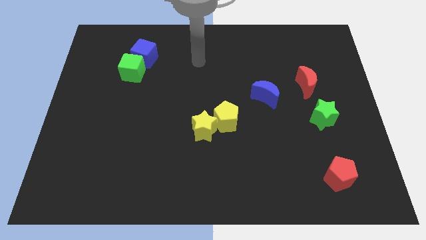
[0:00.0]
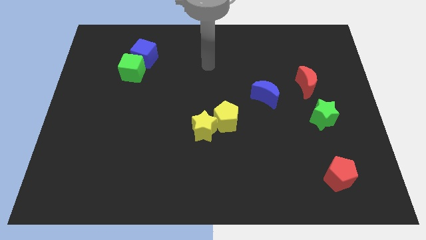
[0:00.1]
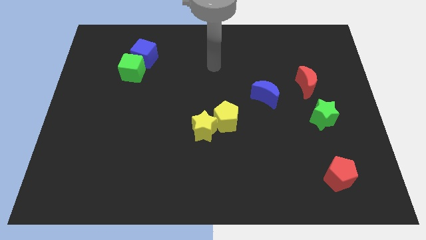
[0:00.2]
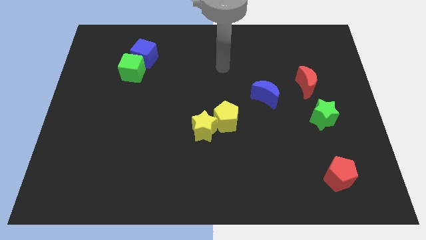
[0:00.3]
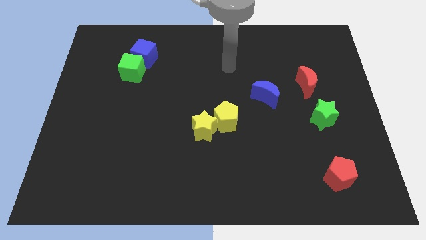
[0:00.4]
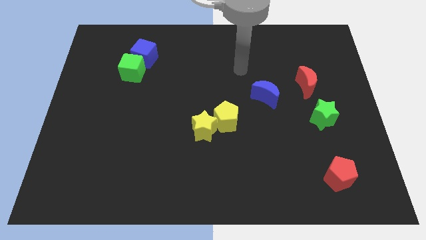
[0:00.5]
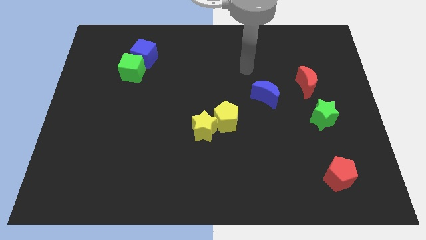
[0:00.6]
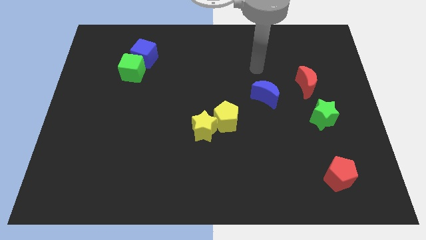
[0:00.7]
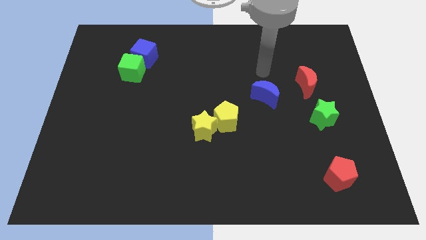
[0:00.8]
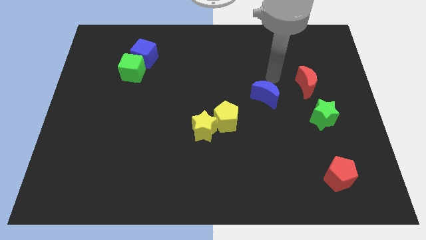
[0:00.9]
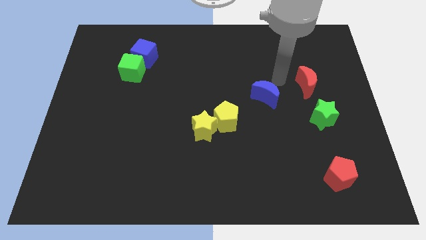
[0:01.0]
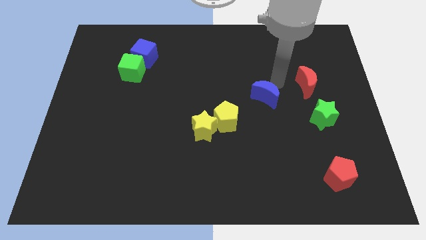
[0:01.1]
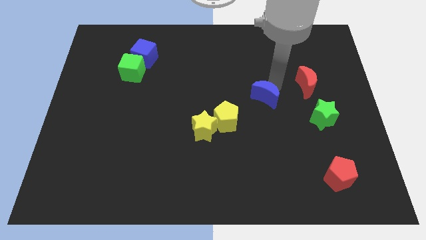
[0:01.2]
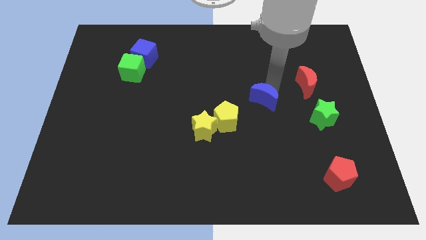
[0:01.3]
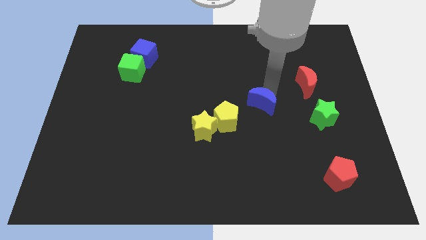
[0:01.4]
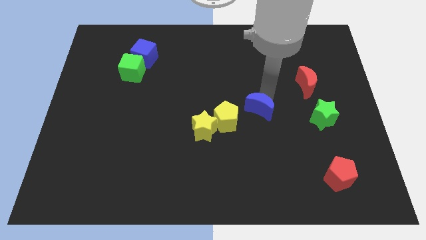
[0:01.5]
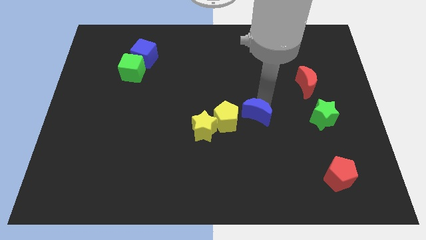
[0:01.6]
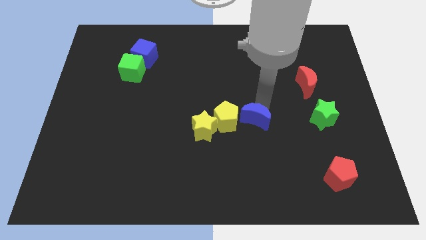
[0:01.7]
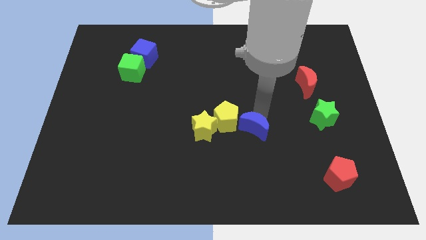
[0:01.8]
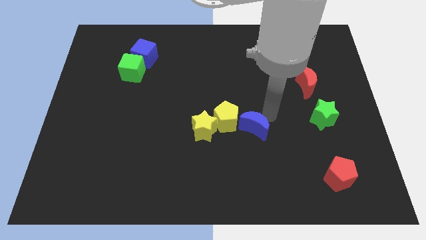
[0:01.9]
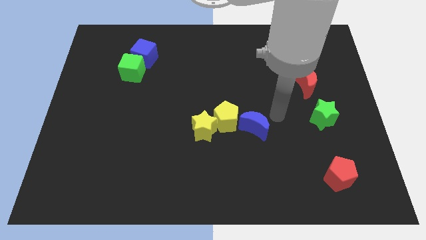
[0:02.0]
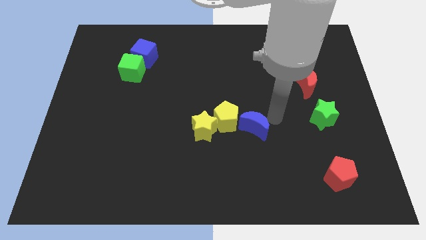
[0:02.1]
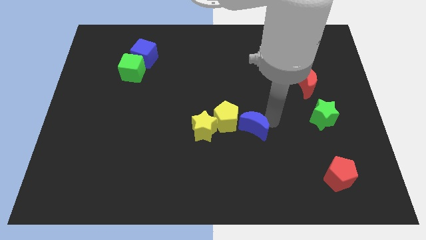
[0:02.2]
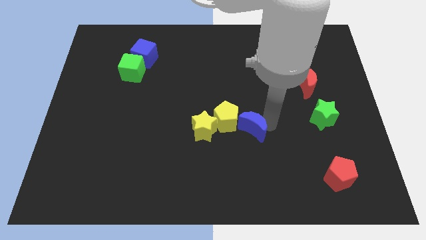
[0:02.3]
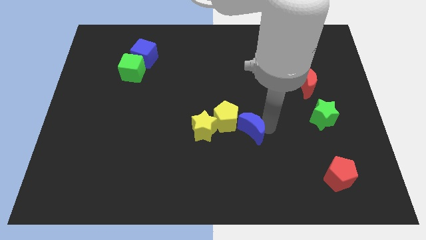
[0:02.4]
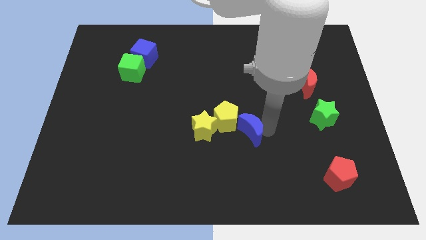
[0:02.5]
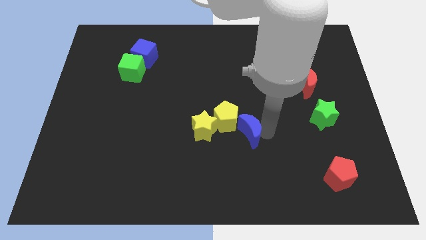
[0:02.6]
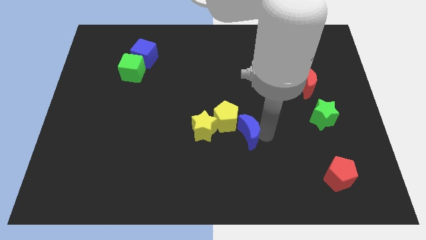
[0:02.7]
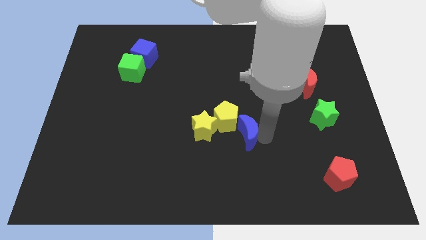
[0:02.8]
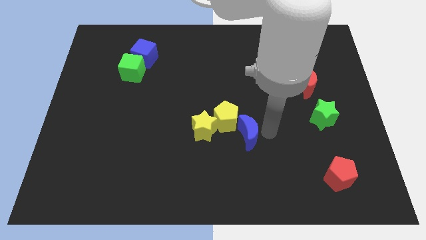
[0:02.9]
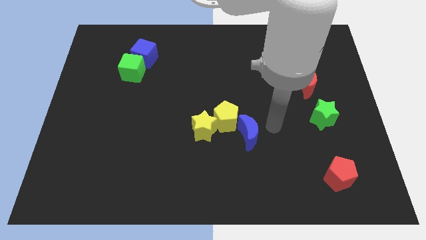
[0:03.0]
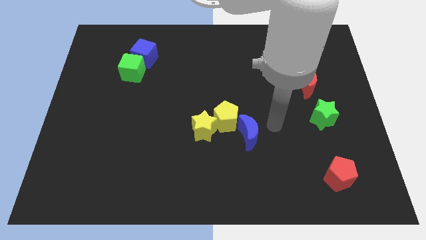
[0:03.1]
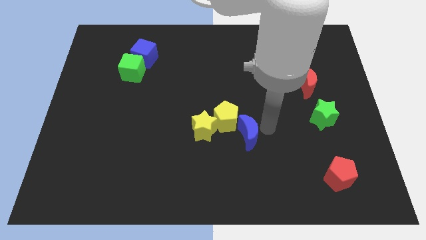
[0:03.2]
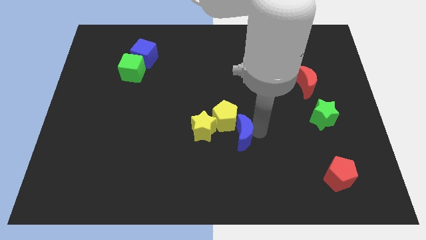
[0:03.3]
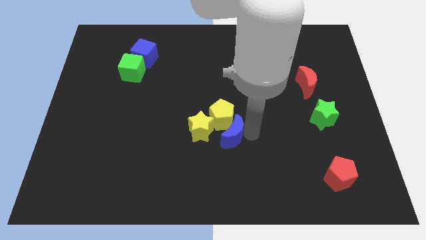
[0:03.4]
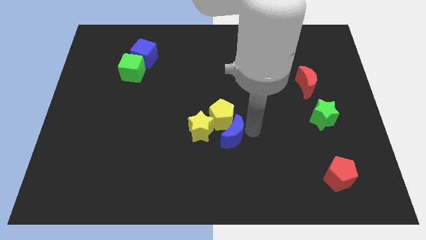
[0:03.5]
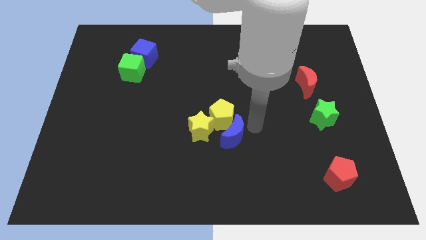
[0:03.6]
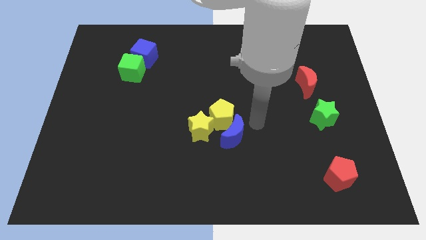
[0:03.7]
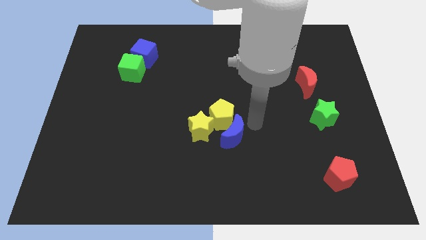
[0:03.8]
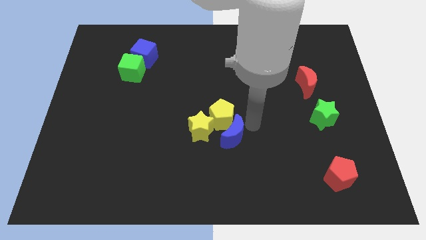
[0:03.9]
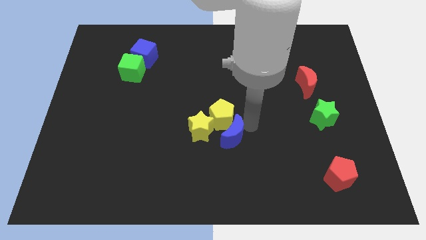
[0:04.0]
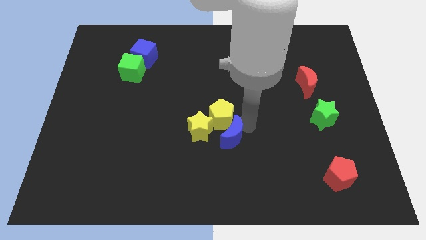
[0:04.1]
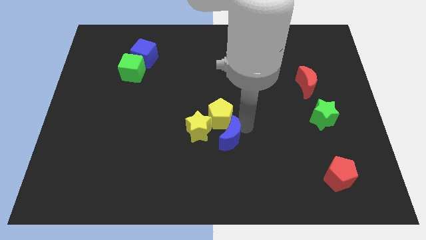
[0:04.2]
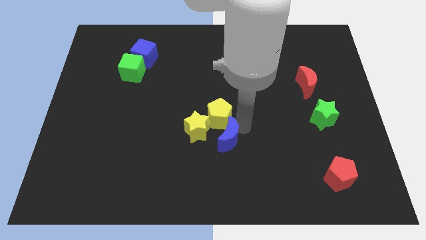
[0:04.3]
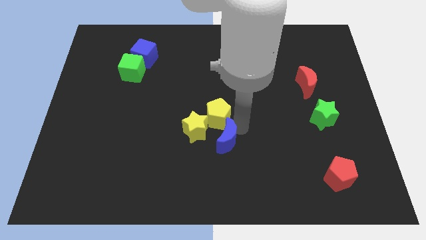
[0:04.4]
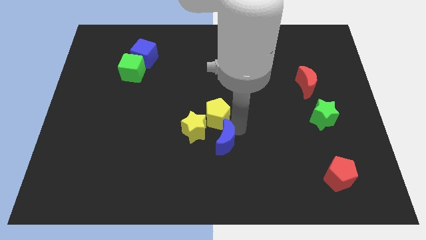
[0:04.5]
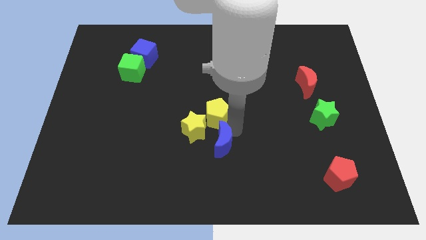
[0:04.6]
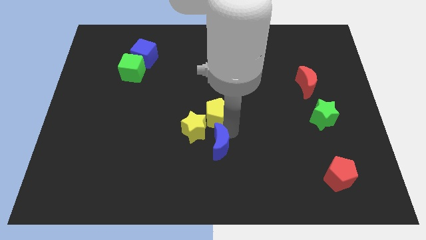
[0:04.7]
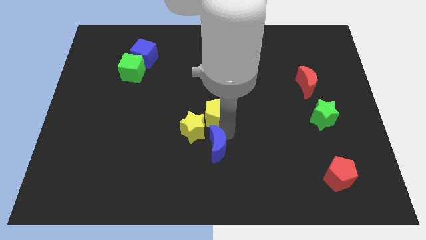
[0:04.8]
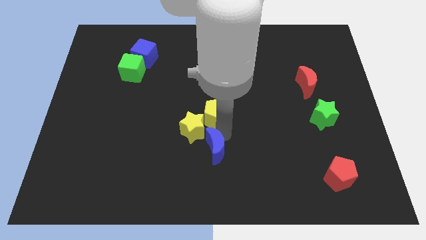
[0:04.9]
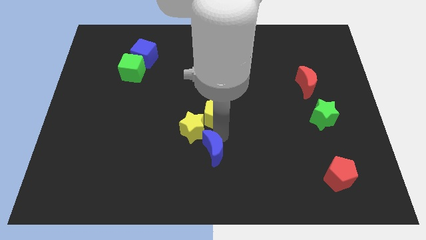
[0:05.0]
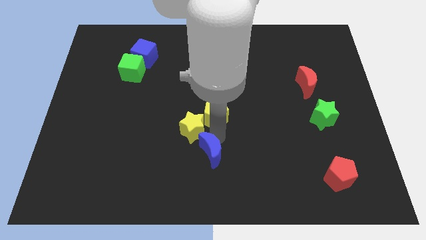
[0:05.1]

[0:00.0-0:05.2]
move the blue moon diagonally down and left

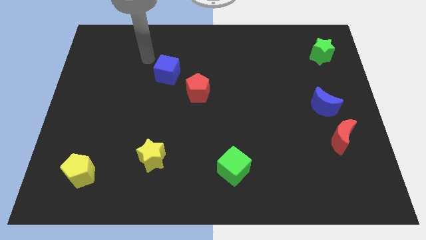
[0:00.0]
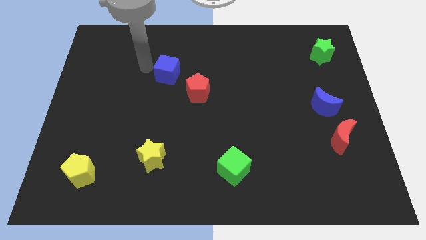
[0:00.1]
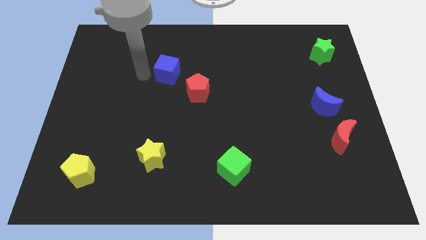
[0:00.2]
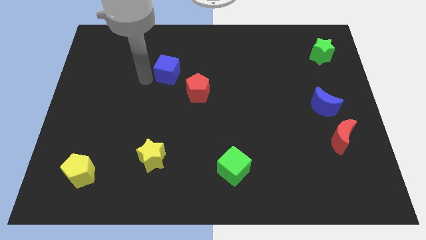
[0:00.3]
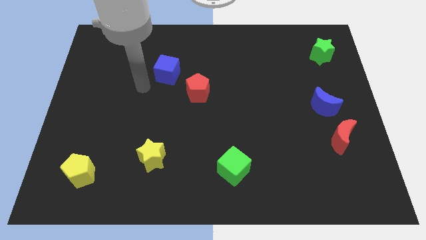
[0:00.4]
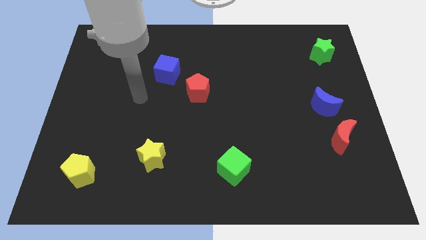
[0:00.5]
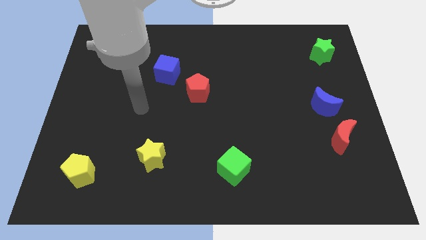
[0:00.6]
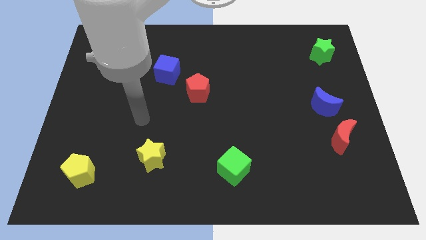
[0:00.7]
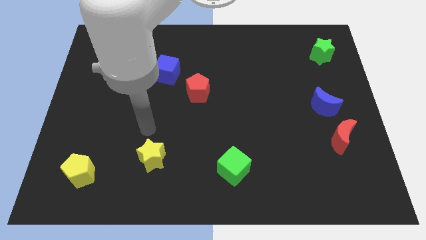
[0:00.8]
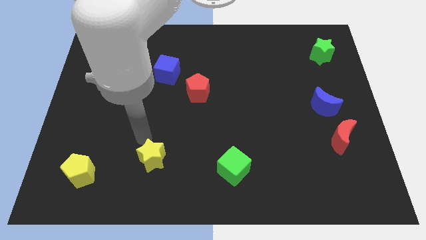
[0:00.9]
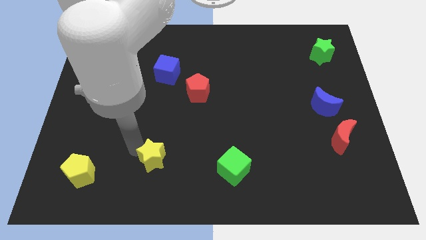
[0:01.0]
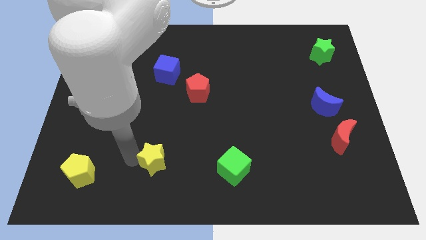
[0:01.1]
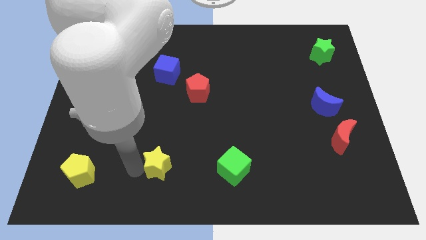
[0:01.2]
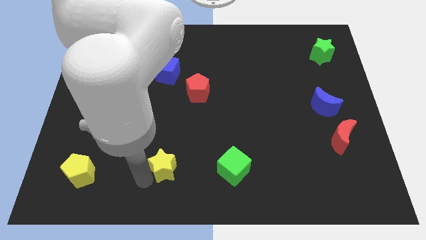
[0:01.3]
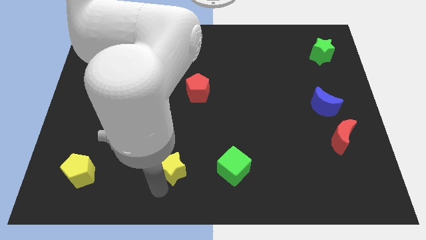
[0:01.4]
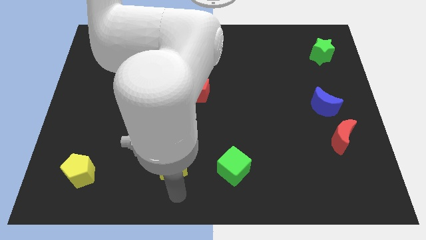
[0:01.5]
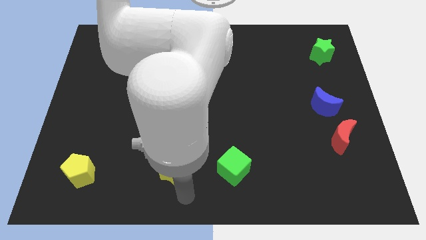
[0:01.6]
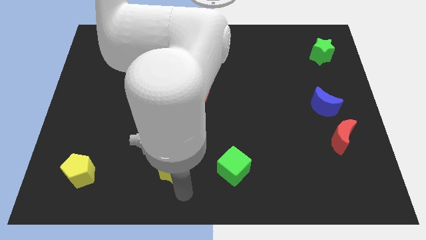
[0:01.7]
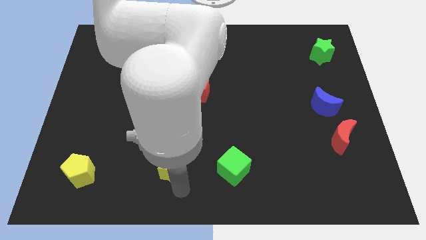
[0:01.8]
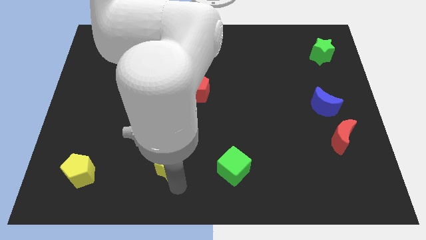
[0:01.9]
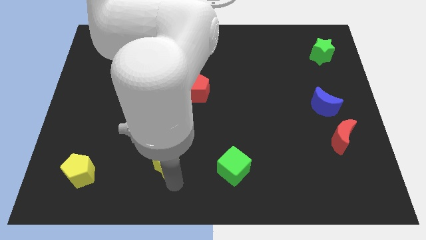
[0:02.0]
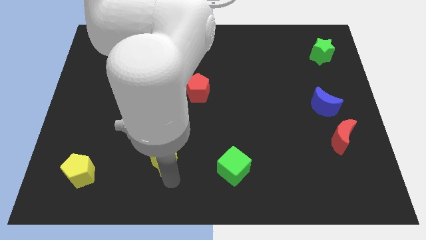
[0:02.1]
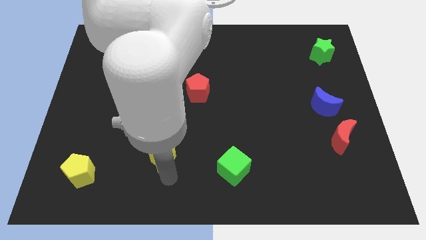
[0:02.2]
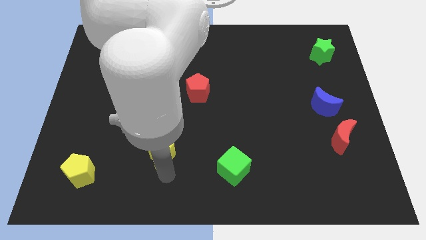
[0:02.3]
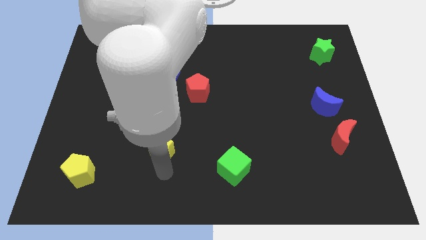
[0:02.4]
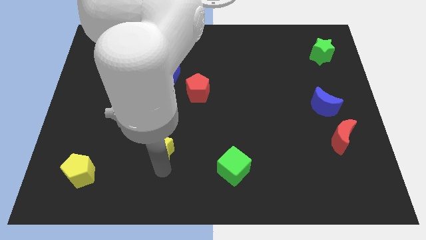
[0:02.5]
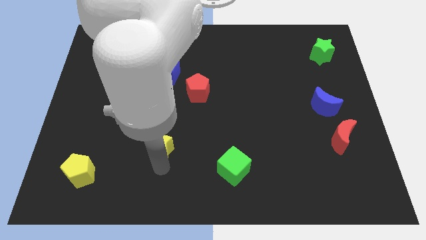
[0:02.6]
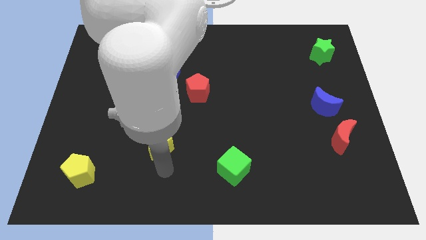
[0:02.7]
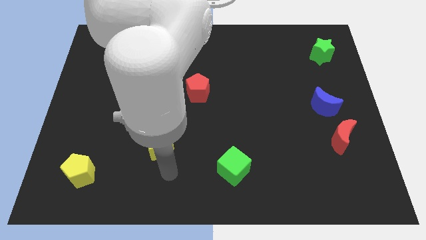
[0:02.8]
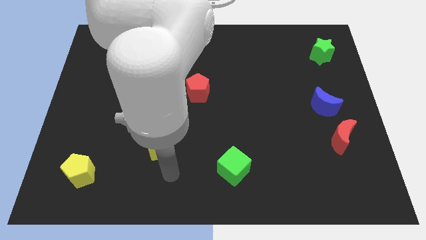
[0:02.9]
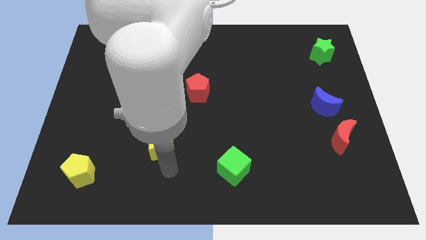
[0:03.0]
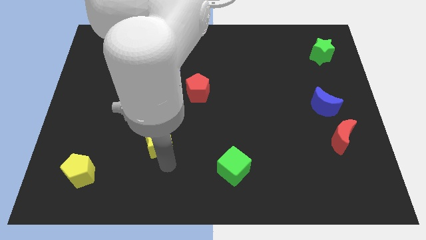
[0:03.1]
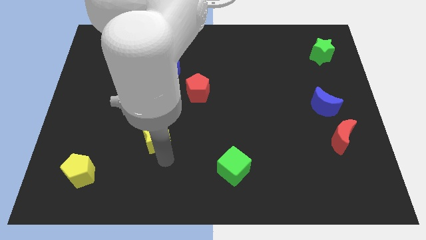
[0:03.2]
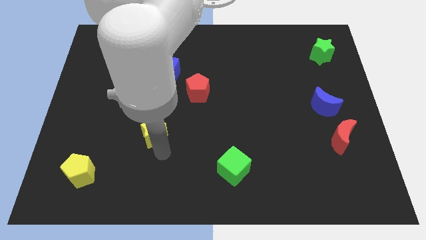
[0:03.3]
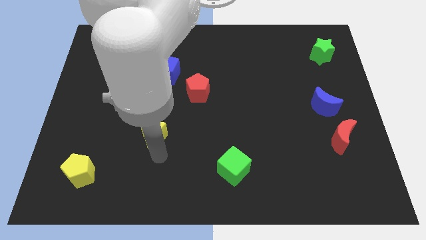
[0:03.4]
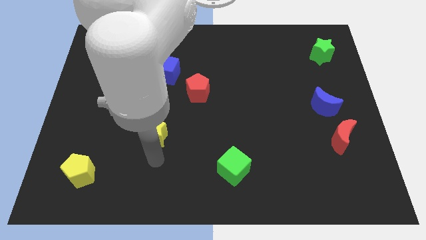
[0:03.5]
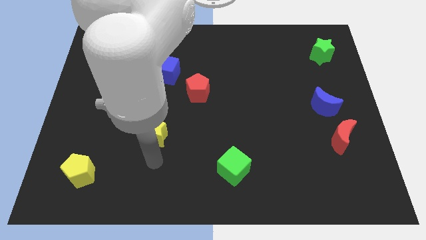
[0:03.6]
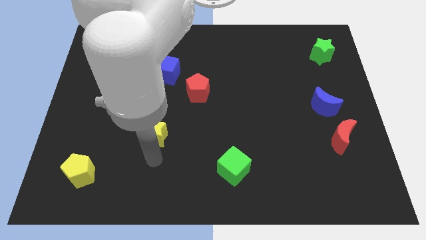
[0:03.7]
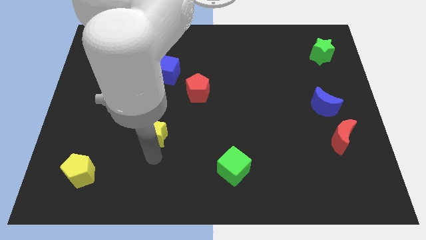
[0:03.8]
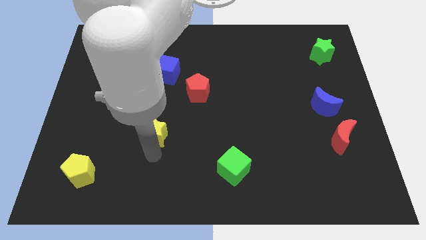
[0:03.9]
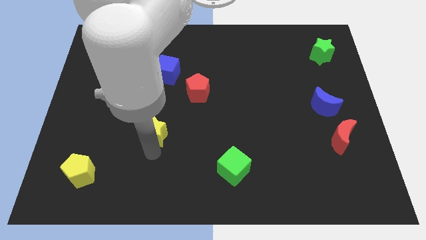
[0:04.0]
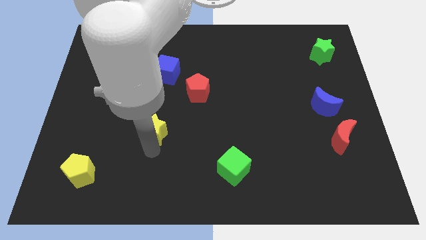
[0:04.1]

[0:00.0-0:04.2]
slide the yellow star upwards somewhat
